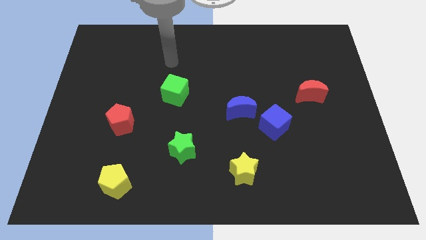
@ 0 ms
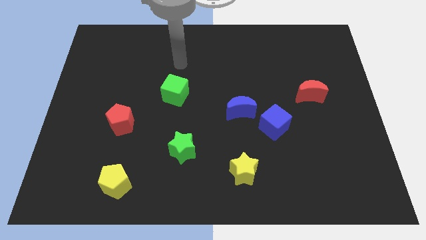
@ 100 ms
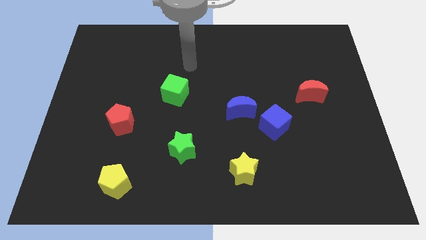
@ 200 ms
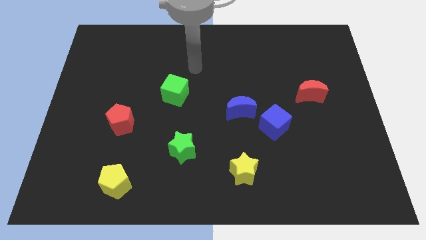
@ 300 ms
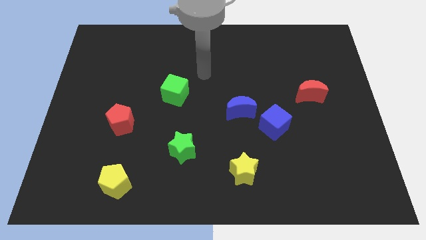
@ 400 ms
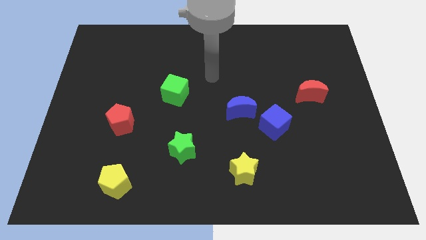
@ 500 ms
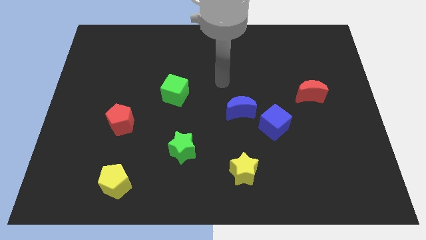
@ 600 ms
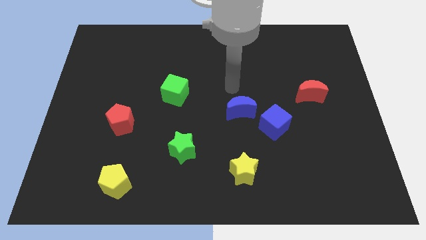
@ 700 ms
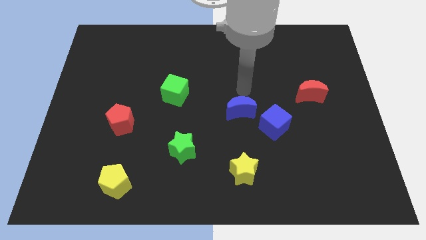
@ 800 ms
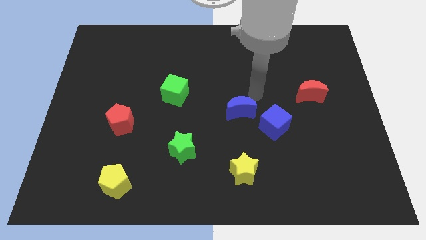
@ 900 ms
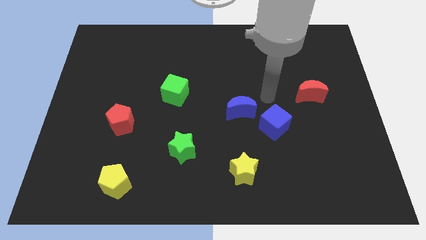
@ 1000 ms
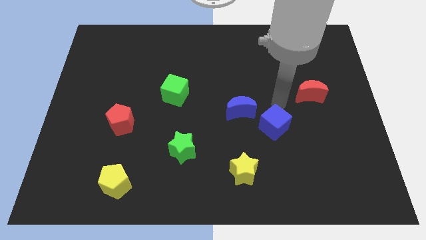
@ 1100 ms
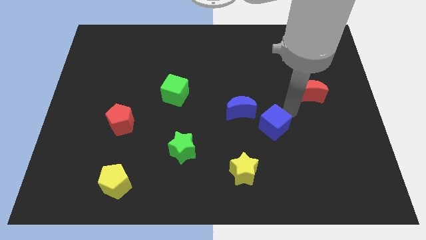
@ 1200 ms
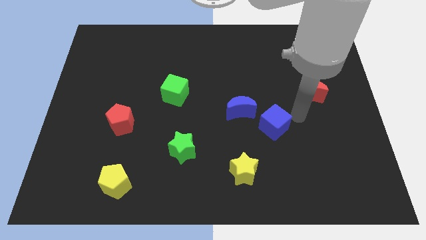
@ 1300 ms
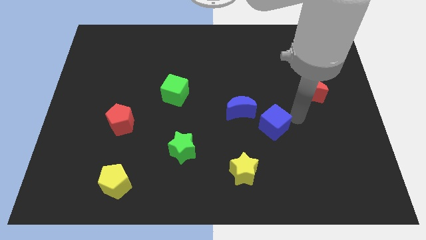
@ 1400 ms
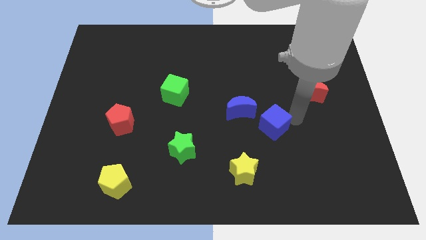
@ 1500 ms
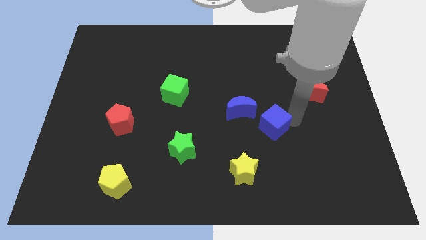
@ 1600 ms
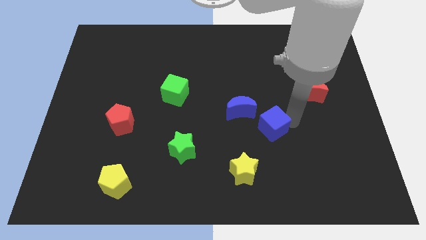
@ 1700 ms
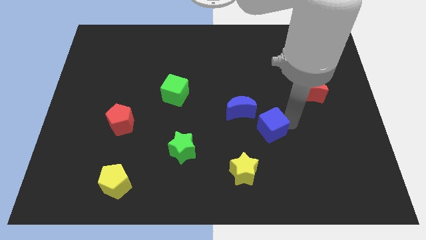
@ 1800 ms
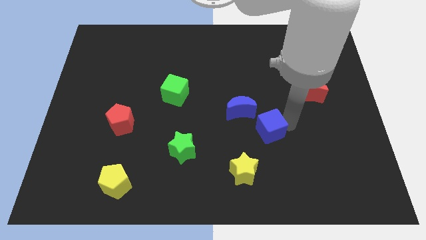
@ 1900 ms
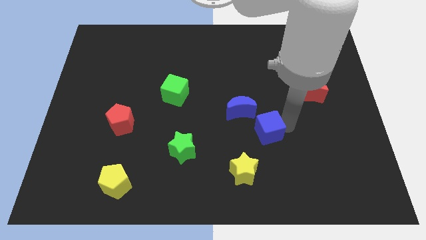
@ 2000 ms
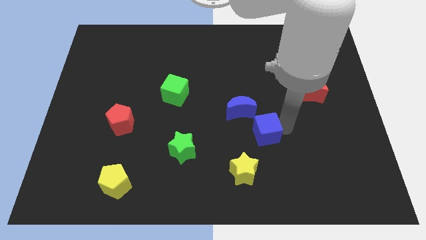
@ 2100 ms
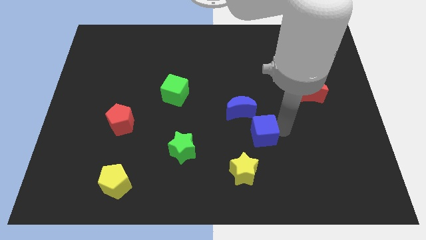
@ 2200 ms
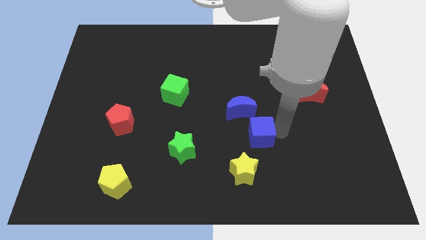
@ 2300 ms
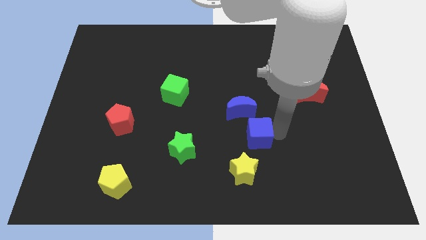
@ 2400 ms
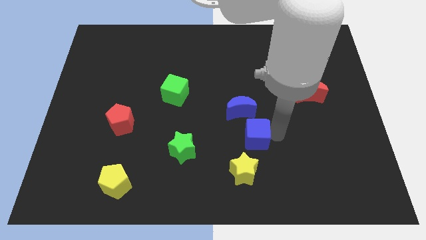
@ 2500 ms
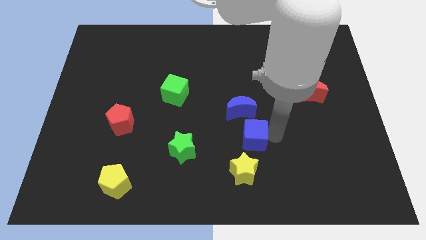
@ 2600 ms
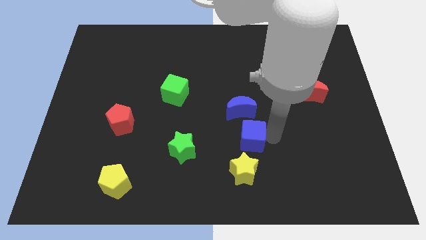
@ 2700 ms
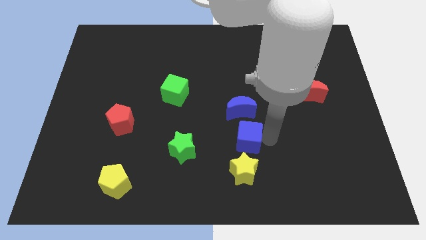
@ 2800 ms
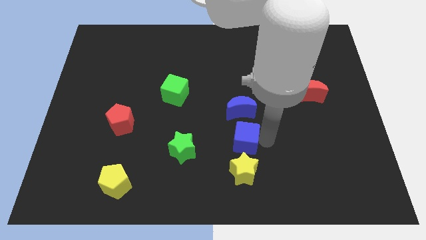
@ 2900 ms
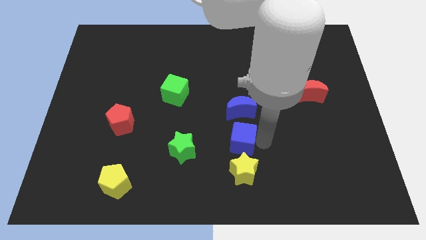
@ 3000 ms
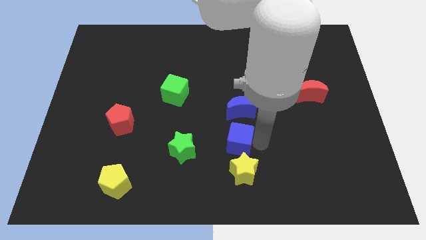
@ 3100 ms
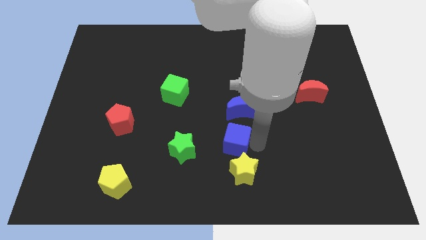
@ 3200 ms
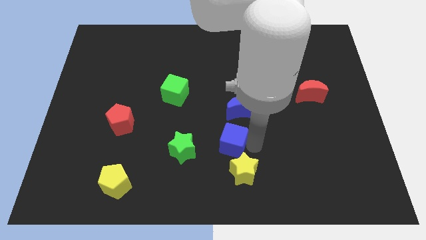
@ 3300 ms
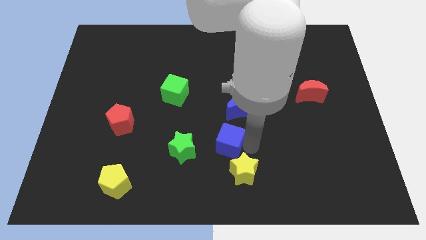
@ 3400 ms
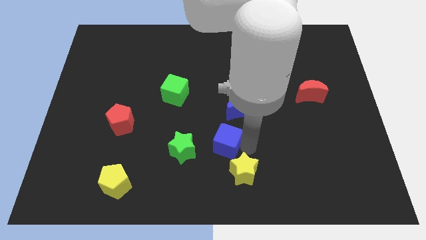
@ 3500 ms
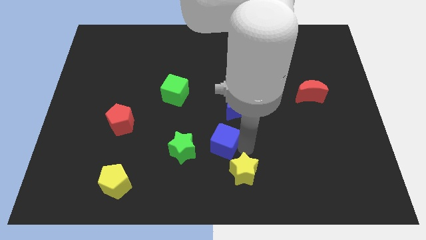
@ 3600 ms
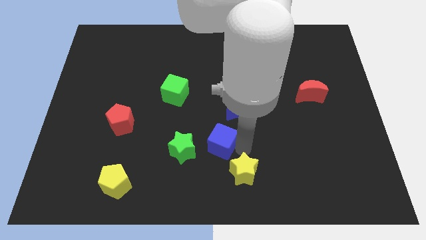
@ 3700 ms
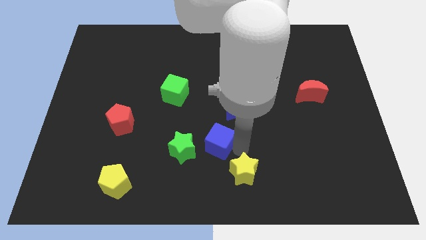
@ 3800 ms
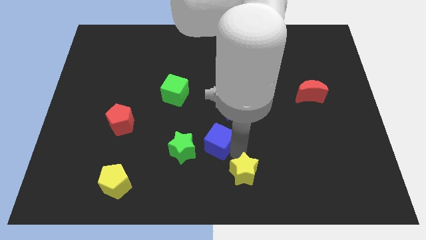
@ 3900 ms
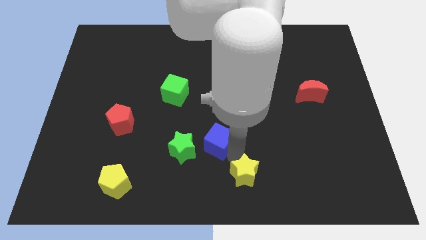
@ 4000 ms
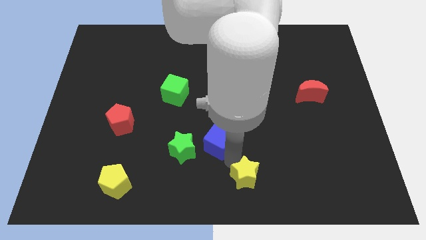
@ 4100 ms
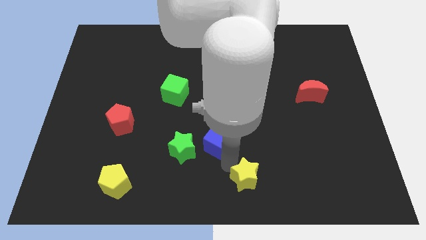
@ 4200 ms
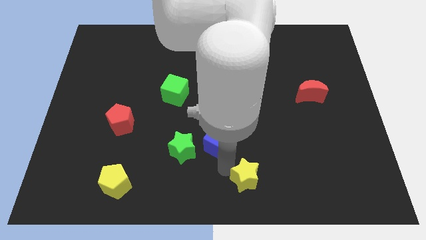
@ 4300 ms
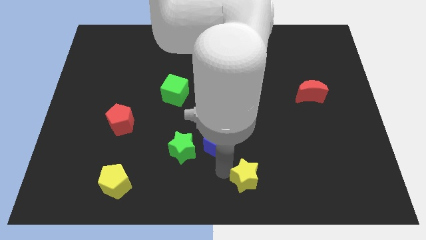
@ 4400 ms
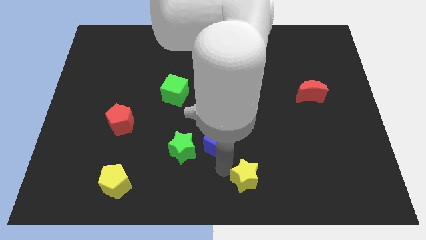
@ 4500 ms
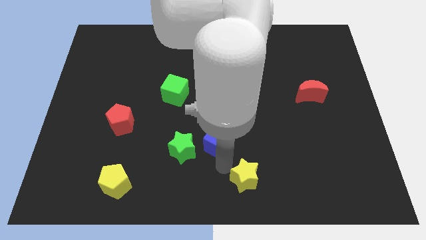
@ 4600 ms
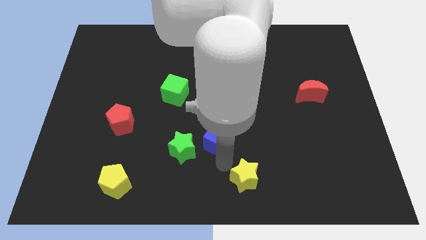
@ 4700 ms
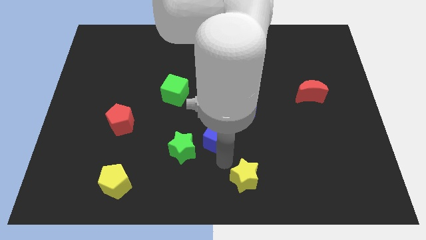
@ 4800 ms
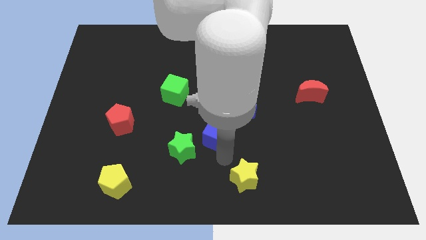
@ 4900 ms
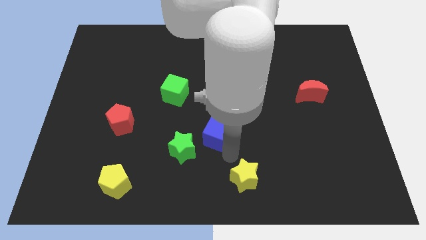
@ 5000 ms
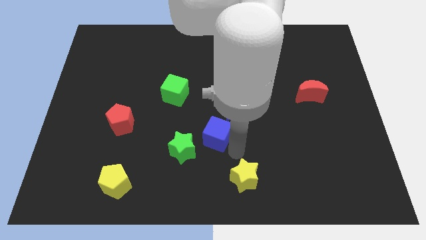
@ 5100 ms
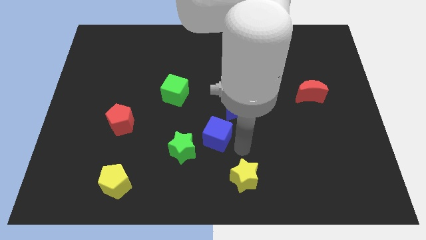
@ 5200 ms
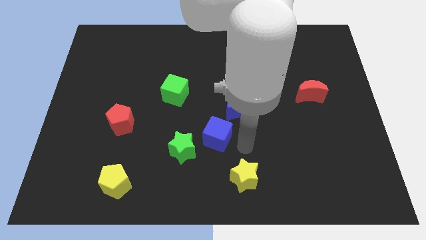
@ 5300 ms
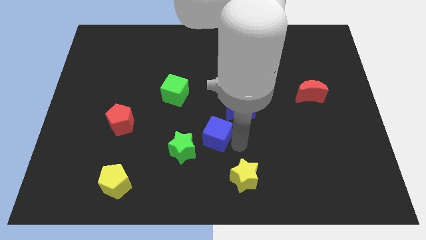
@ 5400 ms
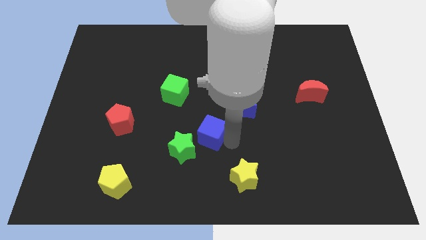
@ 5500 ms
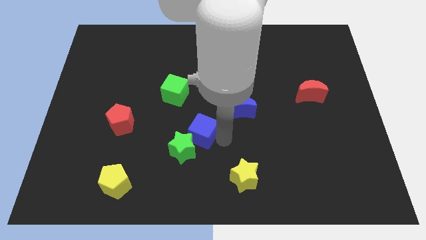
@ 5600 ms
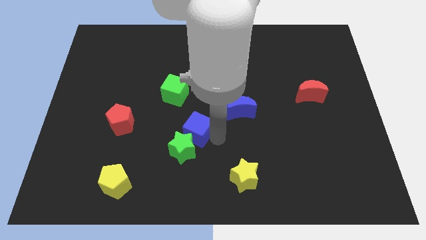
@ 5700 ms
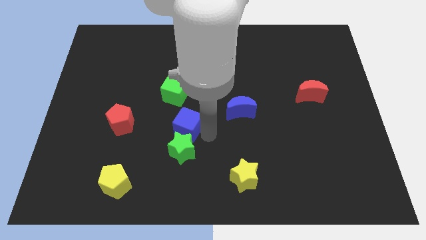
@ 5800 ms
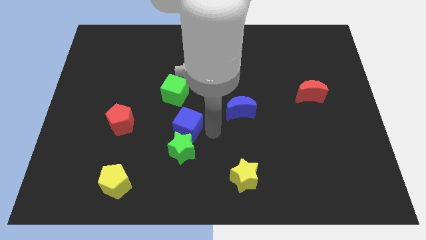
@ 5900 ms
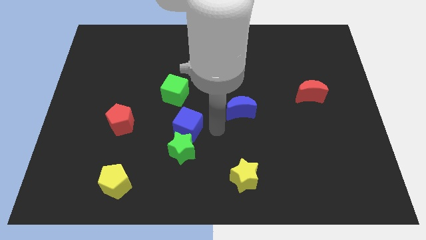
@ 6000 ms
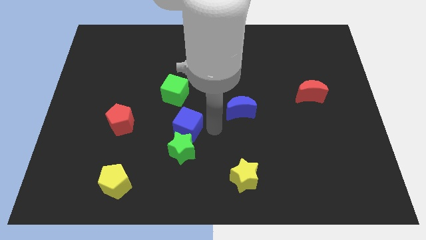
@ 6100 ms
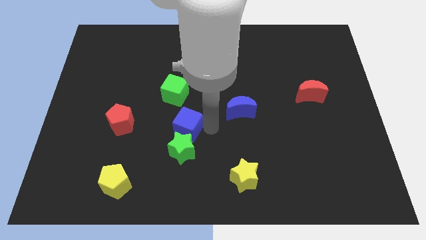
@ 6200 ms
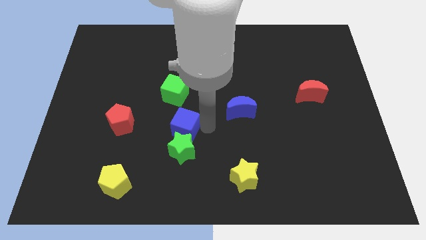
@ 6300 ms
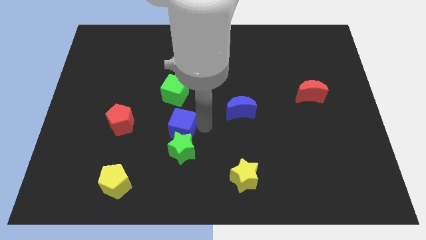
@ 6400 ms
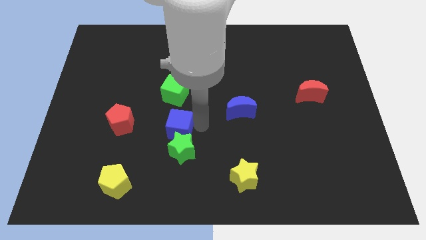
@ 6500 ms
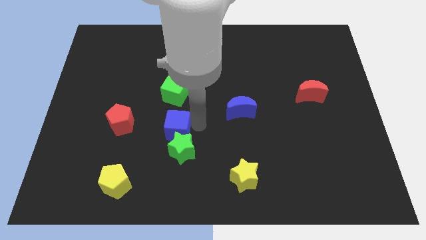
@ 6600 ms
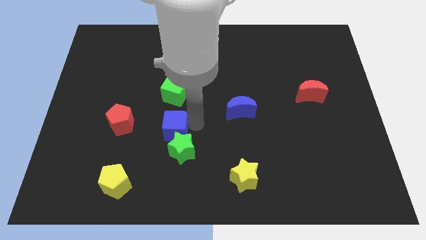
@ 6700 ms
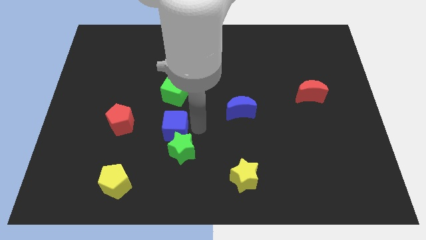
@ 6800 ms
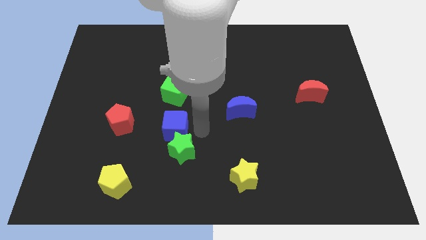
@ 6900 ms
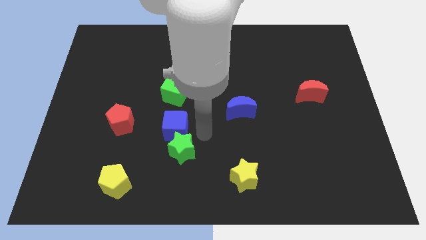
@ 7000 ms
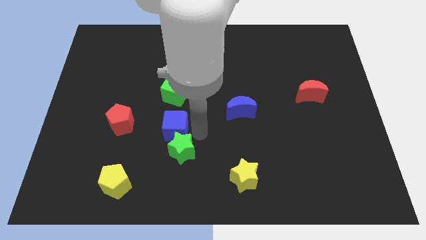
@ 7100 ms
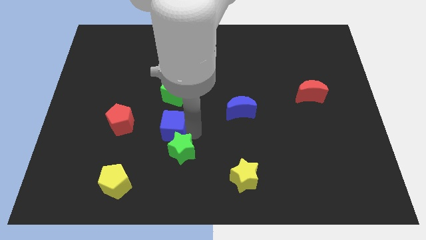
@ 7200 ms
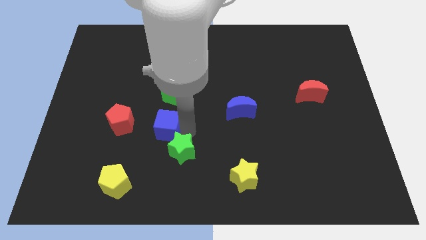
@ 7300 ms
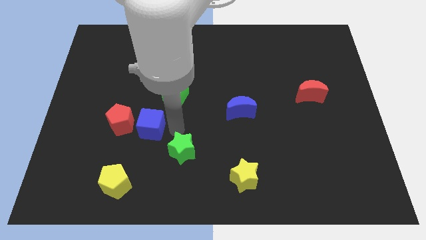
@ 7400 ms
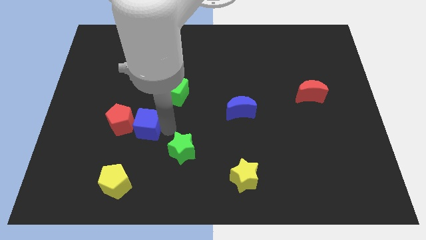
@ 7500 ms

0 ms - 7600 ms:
put the blue cube close to the red pentagon
